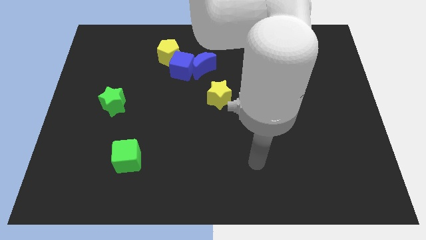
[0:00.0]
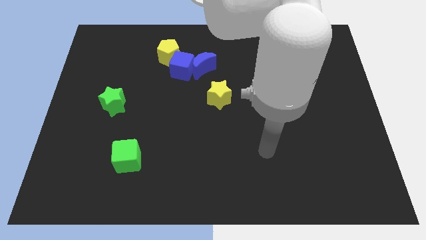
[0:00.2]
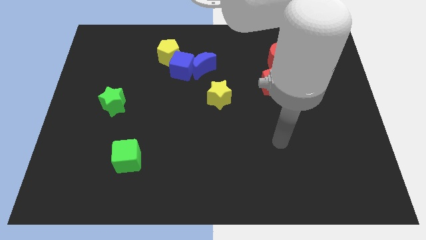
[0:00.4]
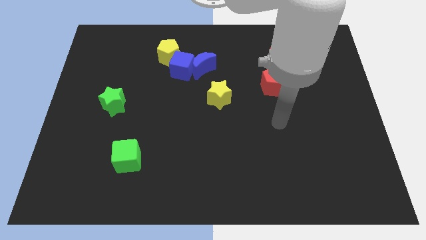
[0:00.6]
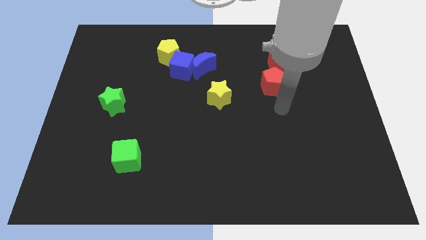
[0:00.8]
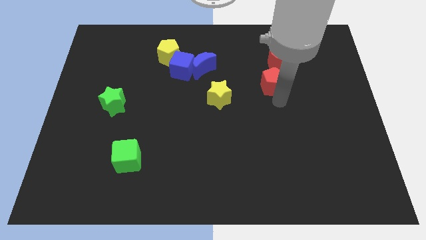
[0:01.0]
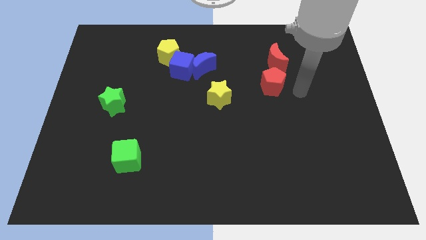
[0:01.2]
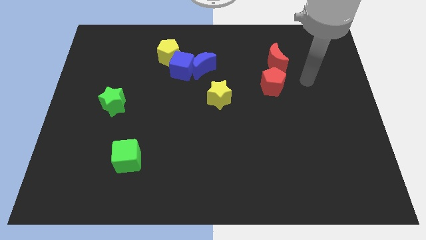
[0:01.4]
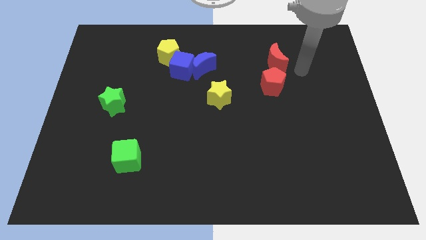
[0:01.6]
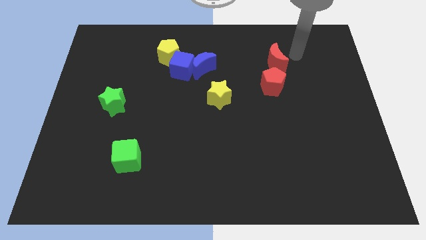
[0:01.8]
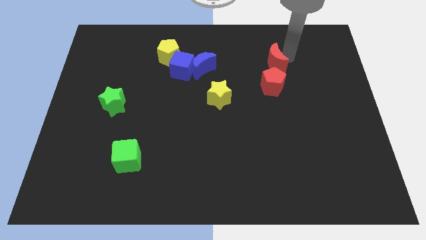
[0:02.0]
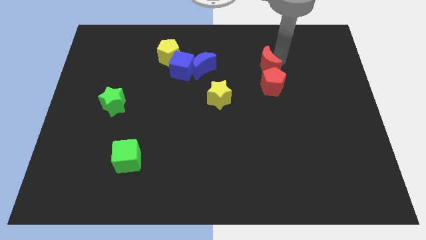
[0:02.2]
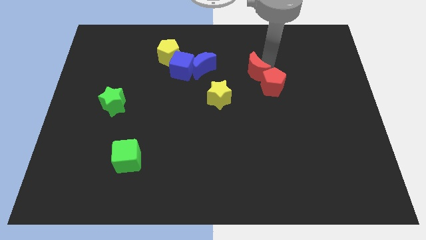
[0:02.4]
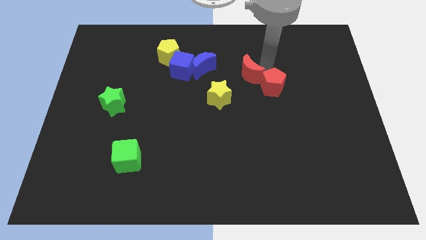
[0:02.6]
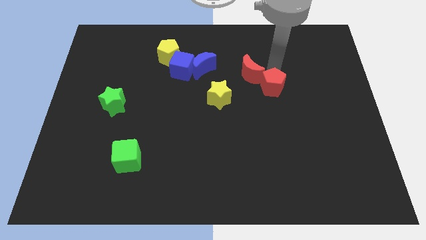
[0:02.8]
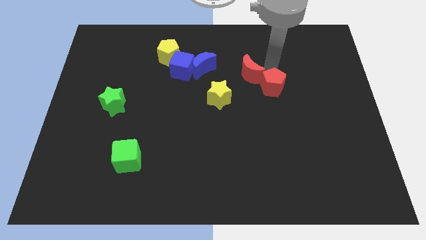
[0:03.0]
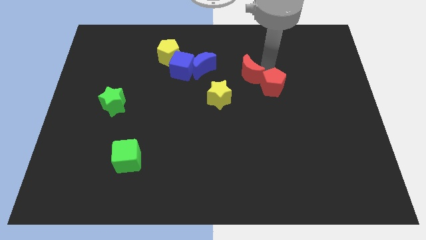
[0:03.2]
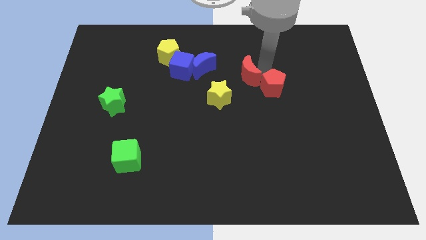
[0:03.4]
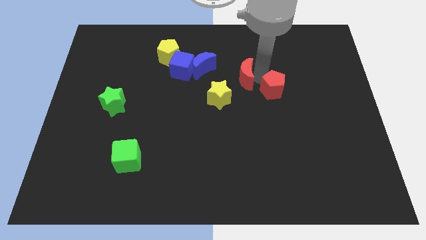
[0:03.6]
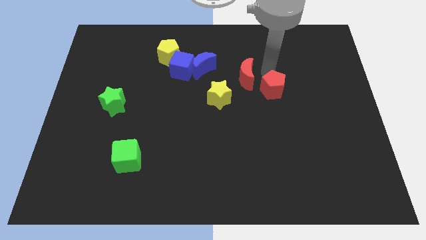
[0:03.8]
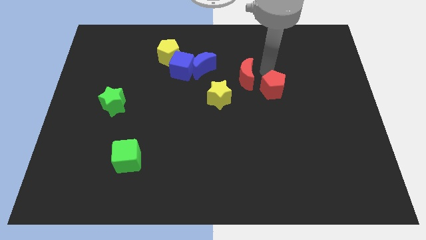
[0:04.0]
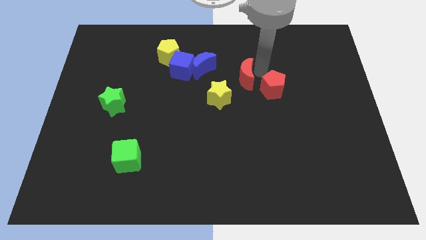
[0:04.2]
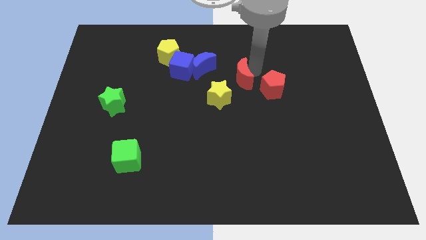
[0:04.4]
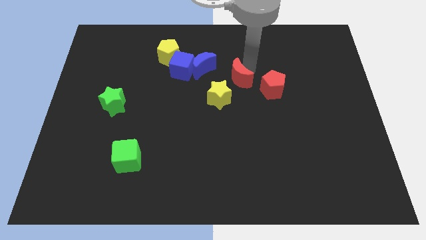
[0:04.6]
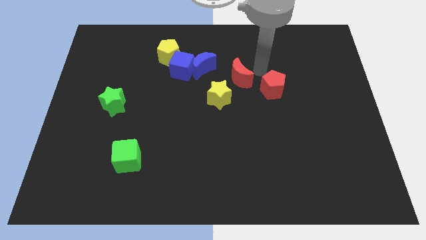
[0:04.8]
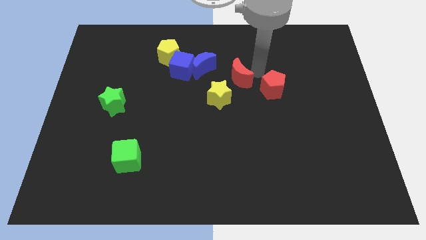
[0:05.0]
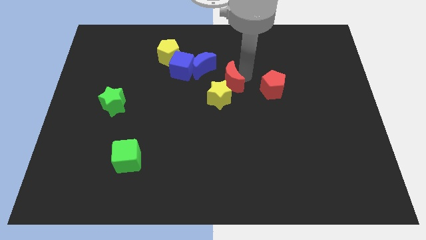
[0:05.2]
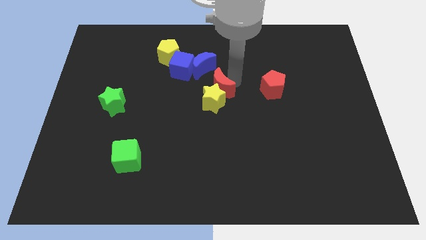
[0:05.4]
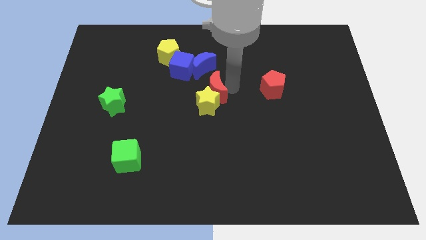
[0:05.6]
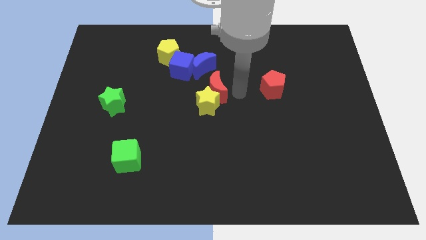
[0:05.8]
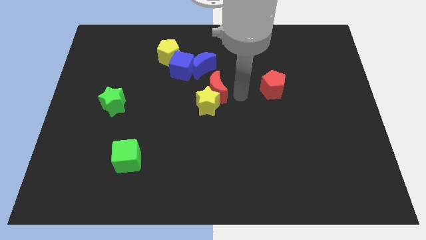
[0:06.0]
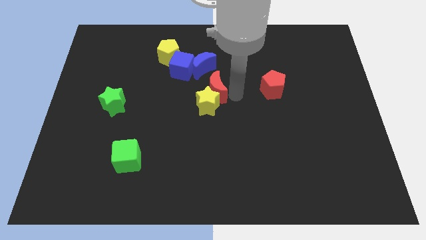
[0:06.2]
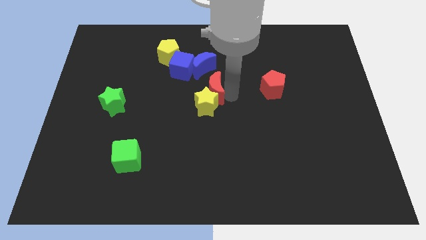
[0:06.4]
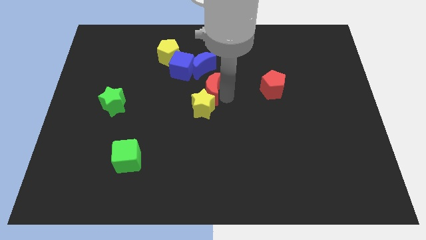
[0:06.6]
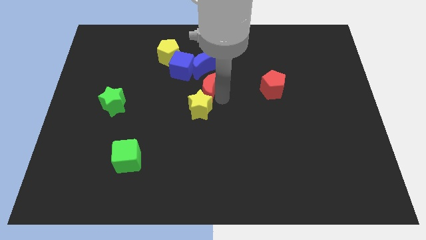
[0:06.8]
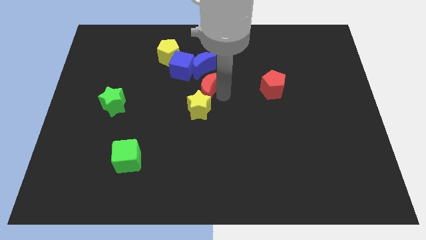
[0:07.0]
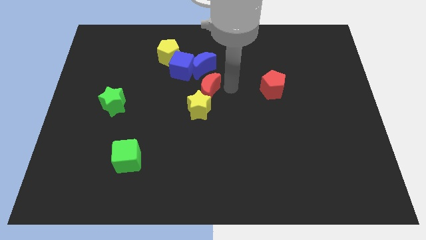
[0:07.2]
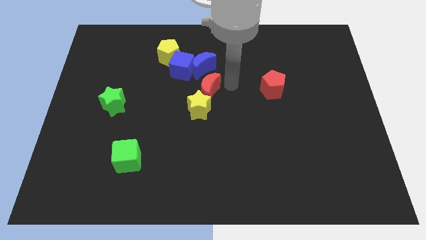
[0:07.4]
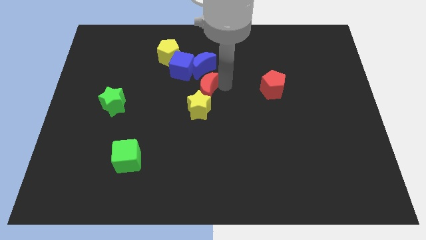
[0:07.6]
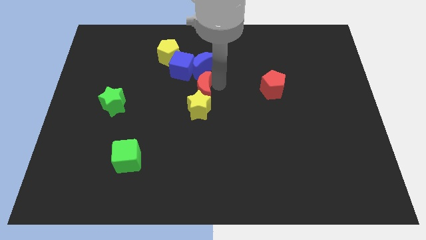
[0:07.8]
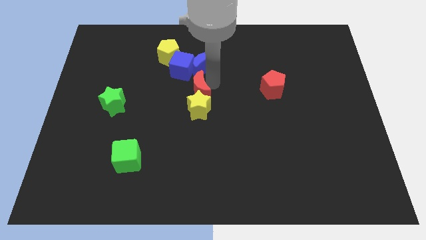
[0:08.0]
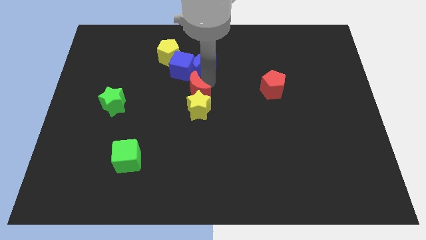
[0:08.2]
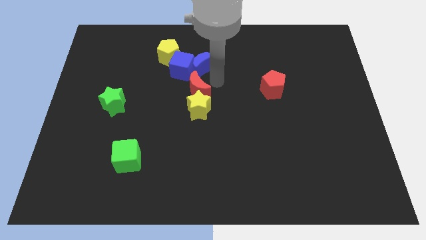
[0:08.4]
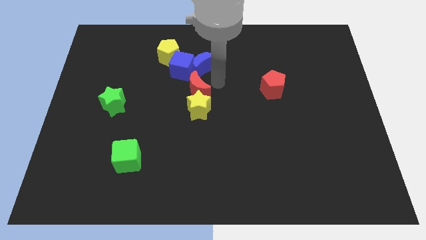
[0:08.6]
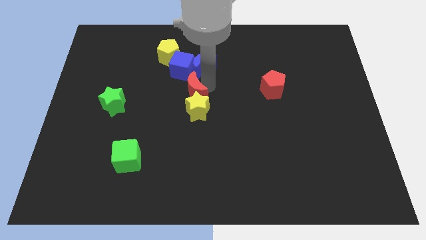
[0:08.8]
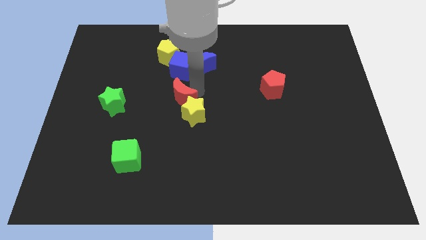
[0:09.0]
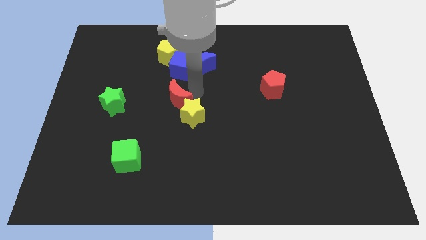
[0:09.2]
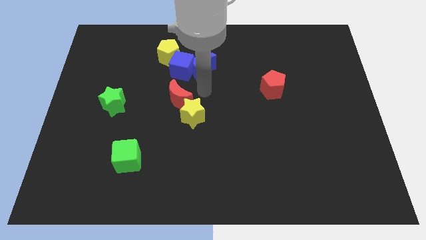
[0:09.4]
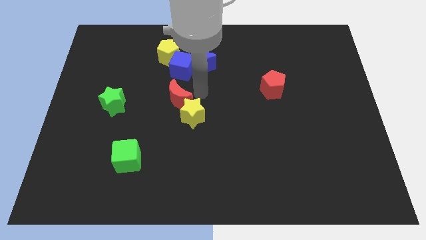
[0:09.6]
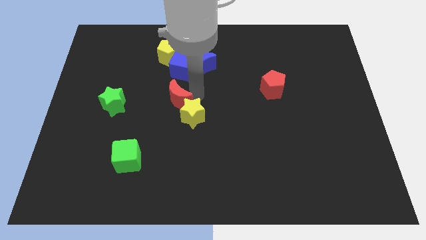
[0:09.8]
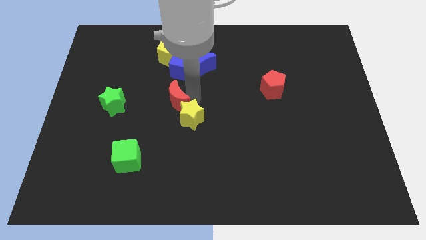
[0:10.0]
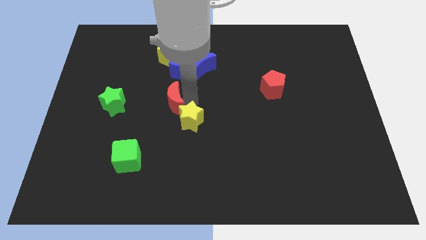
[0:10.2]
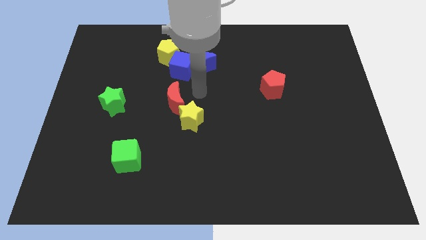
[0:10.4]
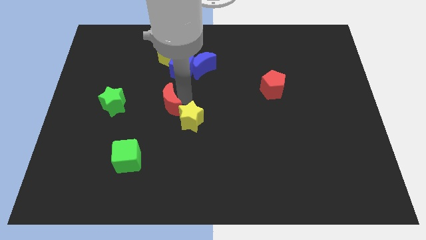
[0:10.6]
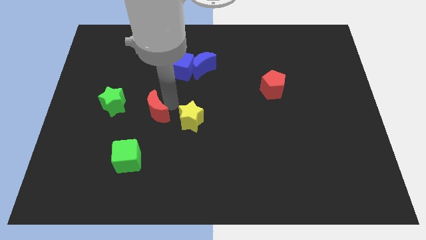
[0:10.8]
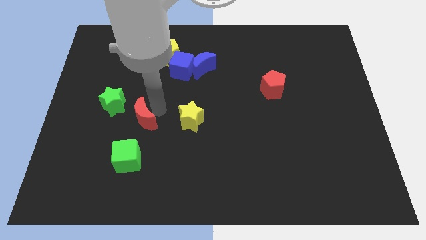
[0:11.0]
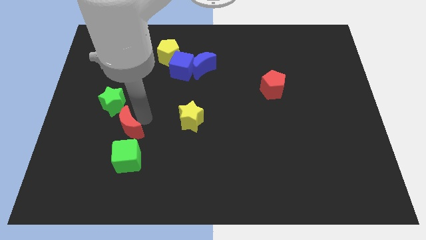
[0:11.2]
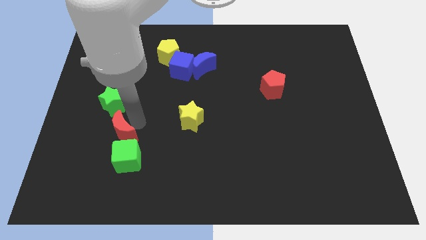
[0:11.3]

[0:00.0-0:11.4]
slide the red moon diagonally up and to the left of the green cube

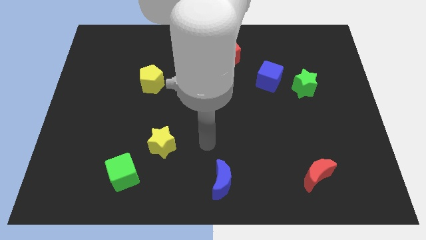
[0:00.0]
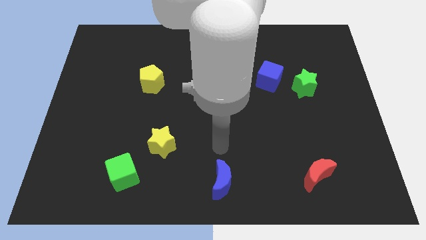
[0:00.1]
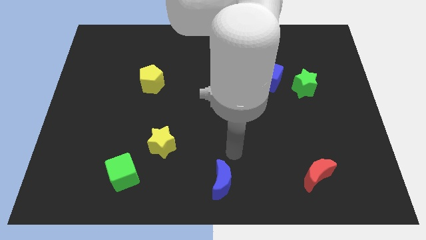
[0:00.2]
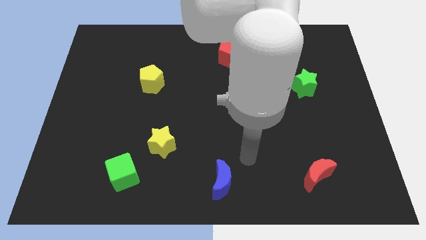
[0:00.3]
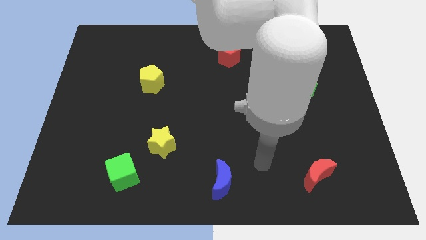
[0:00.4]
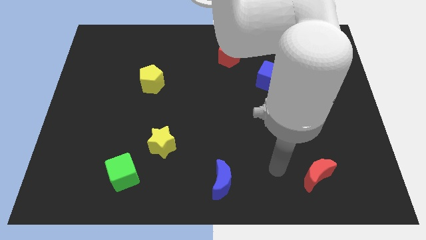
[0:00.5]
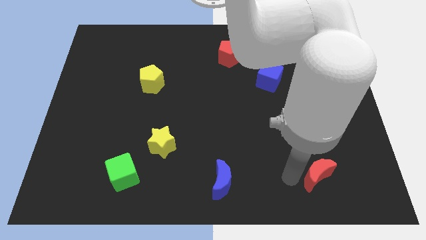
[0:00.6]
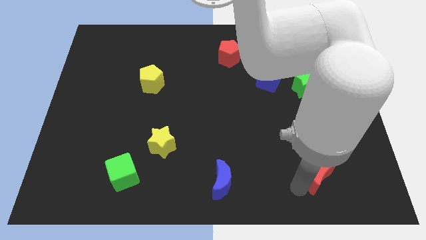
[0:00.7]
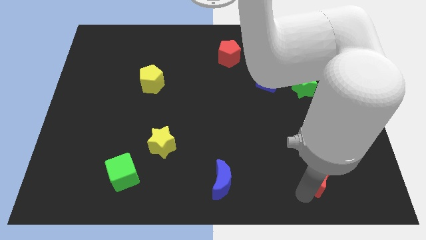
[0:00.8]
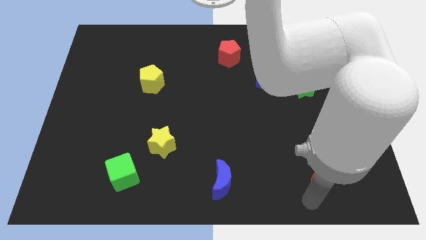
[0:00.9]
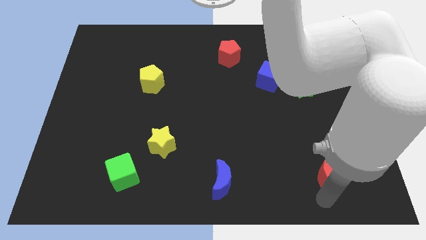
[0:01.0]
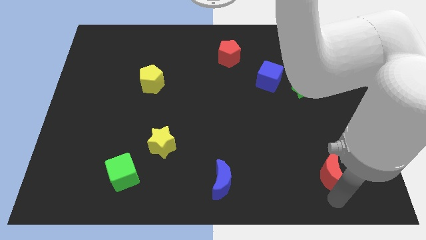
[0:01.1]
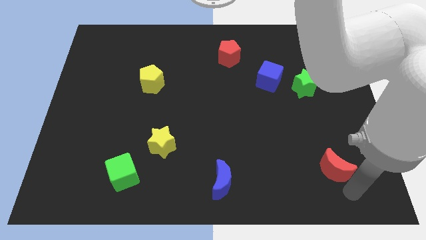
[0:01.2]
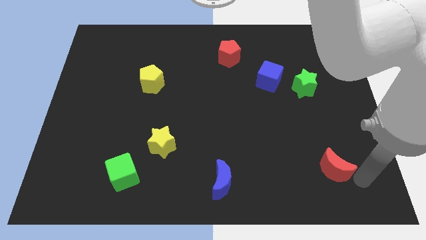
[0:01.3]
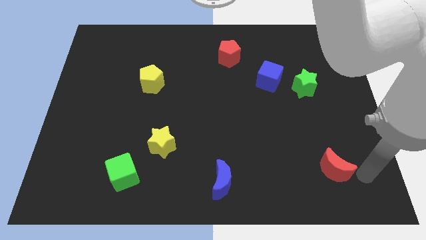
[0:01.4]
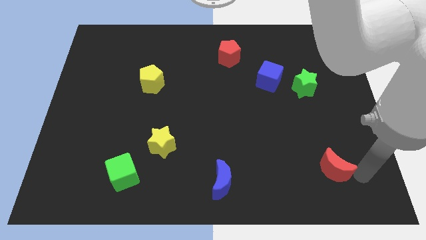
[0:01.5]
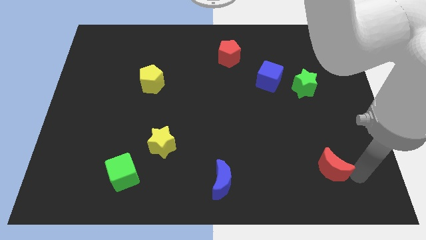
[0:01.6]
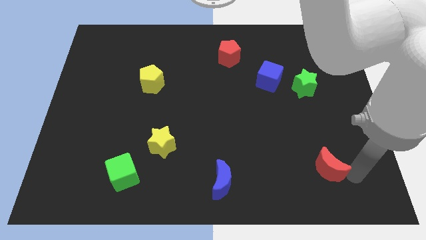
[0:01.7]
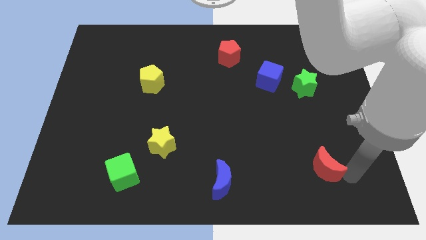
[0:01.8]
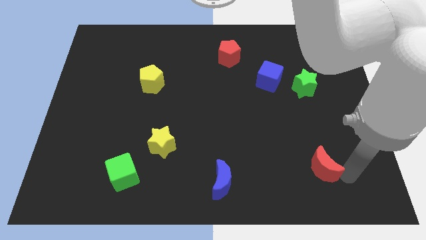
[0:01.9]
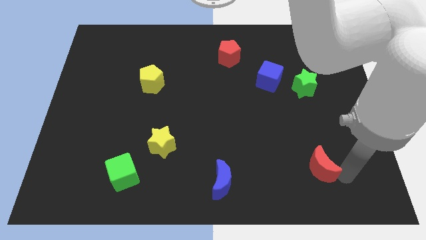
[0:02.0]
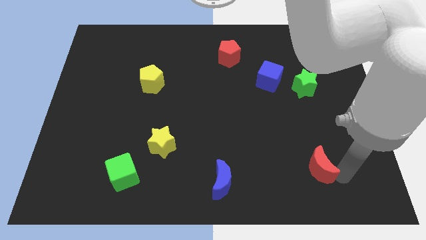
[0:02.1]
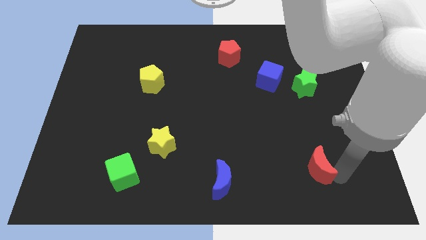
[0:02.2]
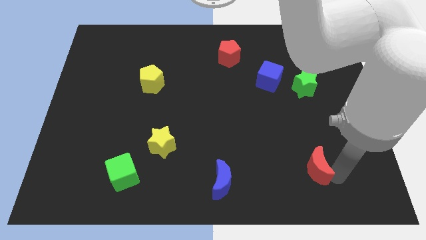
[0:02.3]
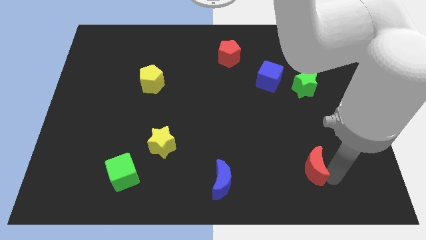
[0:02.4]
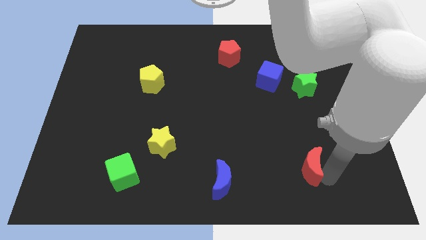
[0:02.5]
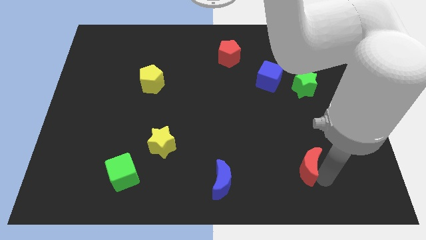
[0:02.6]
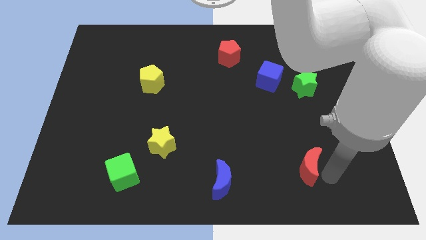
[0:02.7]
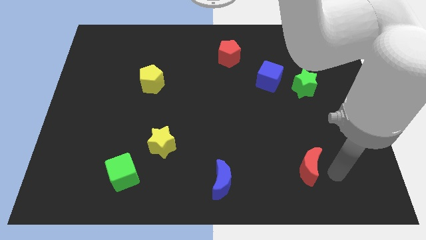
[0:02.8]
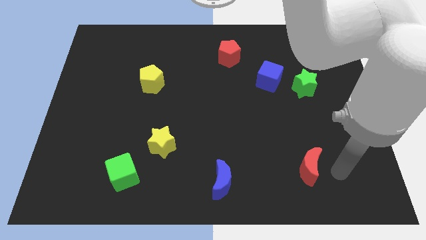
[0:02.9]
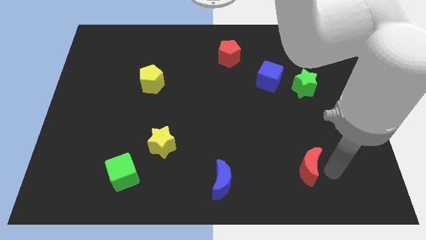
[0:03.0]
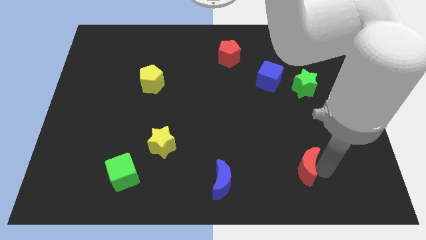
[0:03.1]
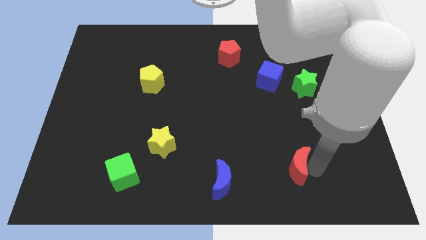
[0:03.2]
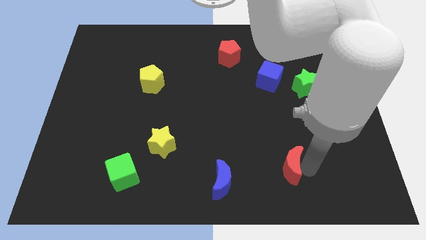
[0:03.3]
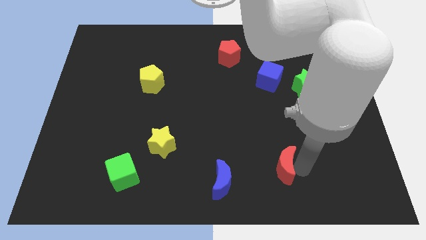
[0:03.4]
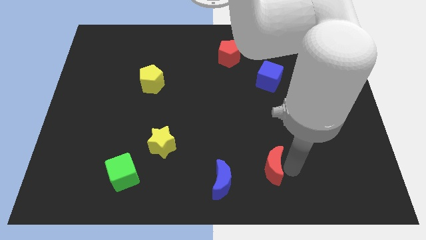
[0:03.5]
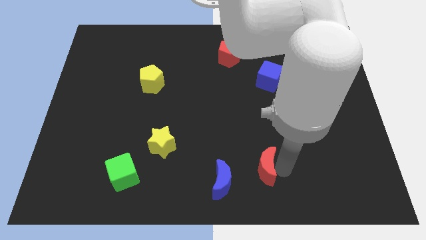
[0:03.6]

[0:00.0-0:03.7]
move the red moon to the top right of the blue moon
